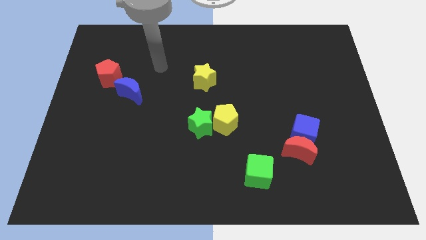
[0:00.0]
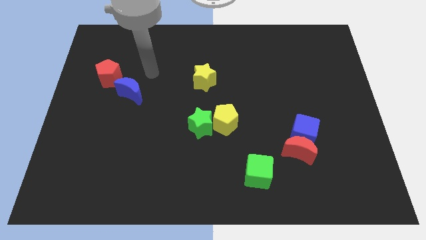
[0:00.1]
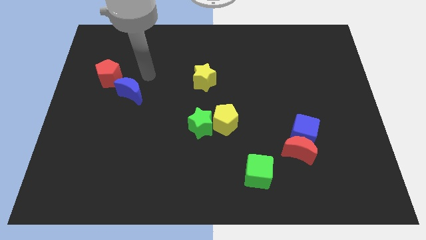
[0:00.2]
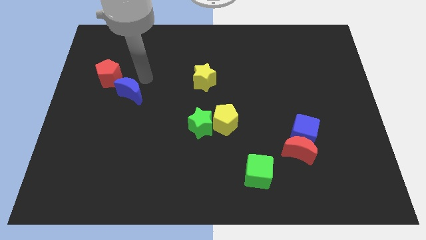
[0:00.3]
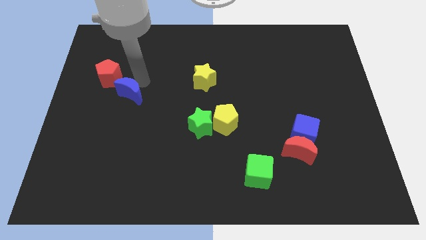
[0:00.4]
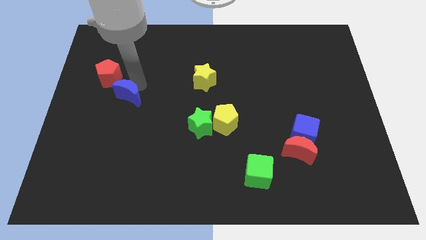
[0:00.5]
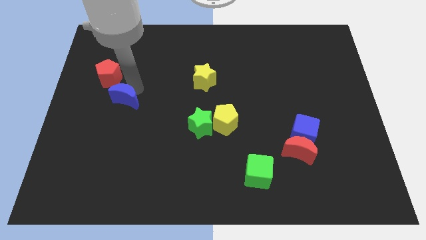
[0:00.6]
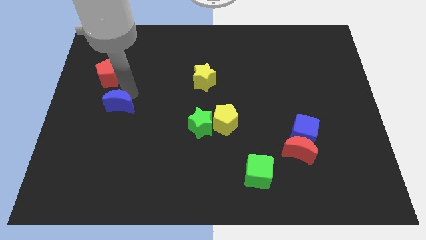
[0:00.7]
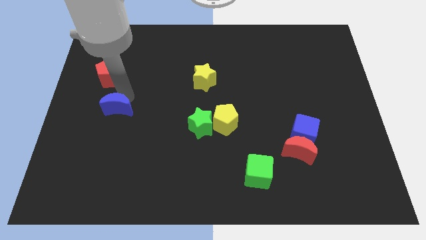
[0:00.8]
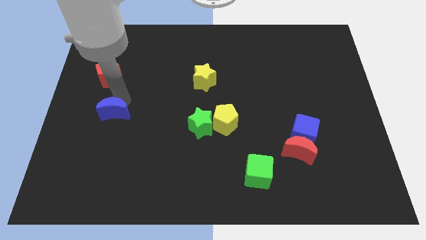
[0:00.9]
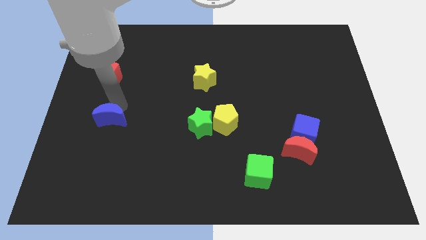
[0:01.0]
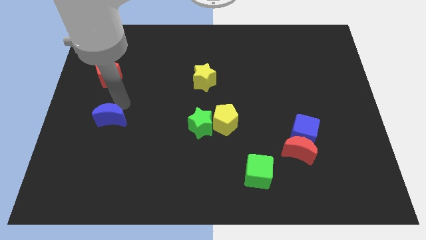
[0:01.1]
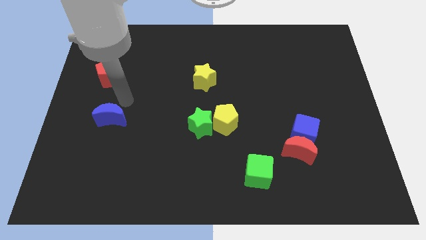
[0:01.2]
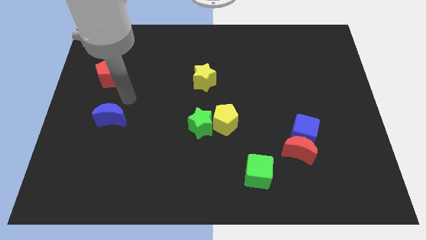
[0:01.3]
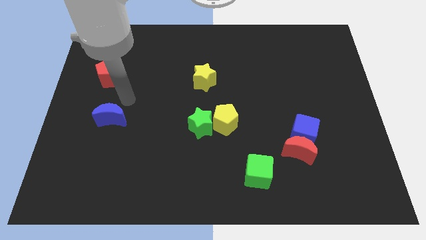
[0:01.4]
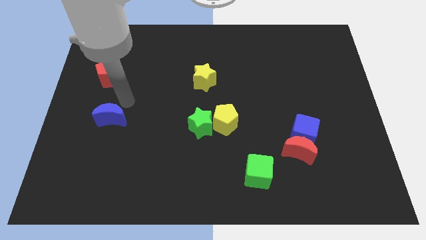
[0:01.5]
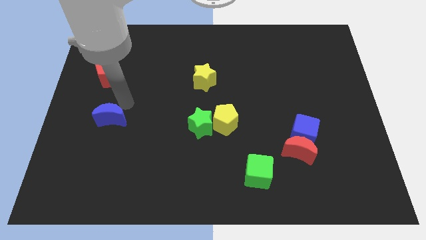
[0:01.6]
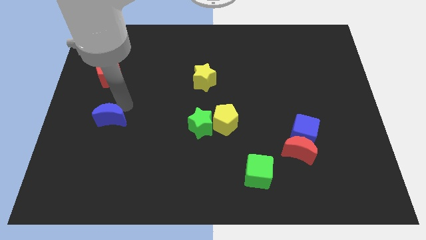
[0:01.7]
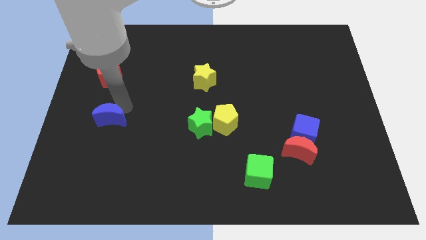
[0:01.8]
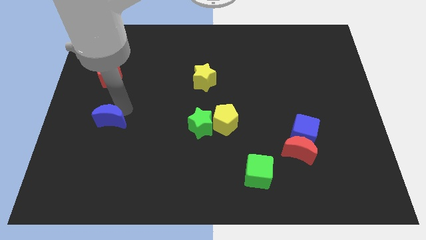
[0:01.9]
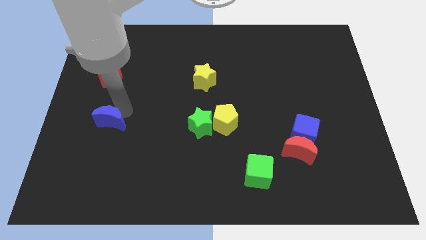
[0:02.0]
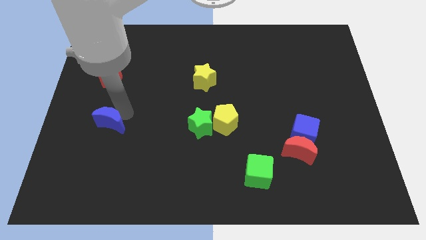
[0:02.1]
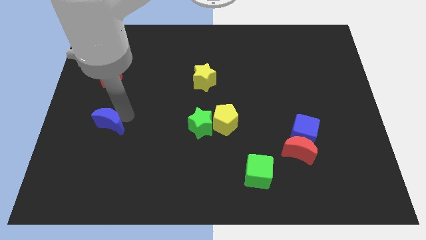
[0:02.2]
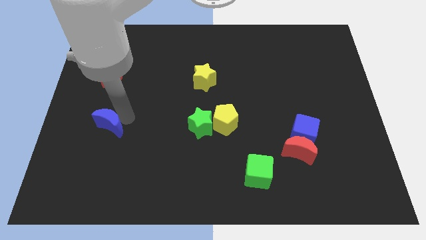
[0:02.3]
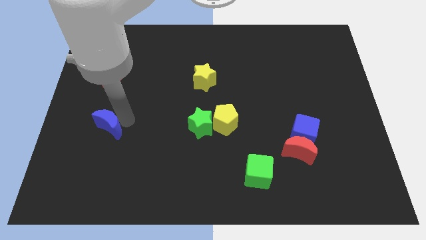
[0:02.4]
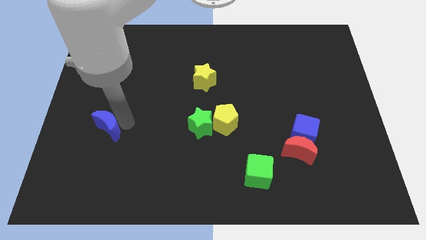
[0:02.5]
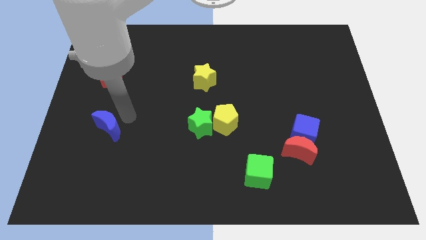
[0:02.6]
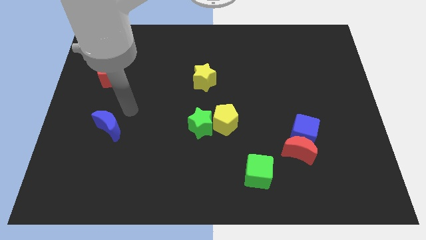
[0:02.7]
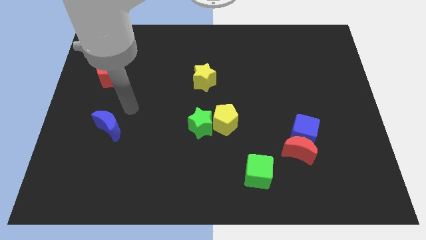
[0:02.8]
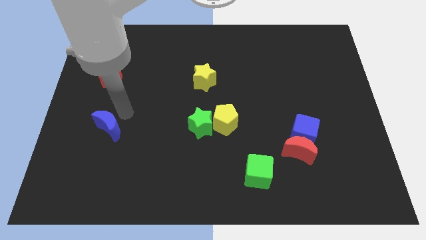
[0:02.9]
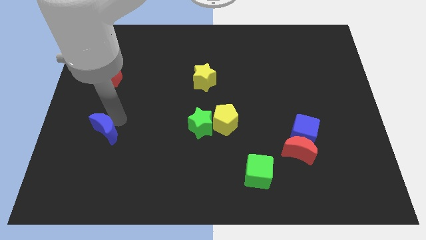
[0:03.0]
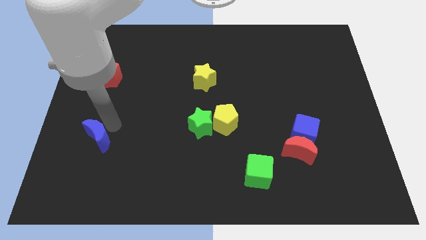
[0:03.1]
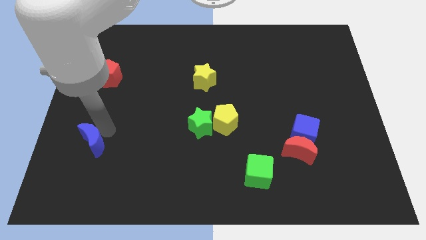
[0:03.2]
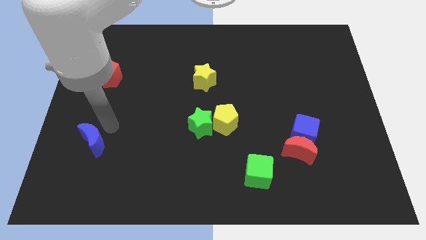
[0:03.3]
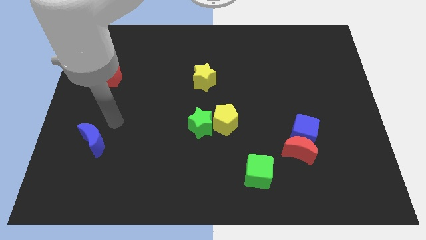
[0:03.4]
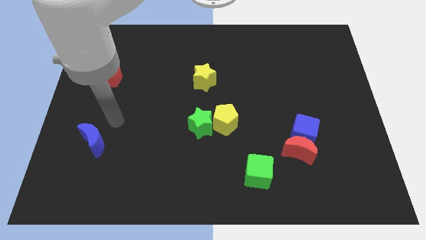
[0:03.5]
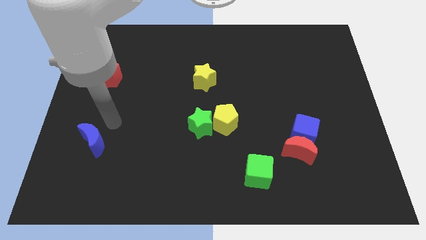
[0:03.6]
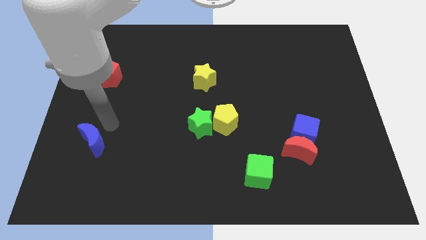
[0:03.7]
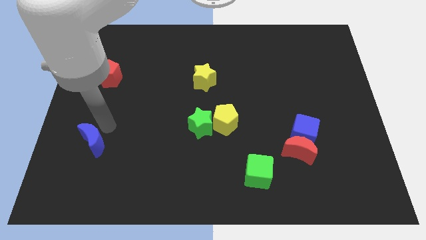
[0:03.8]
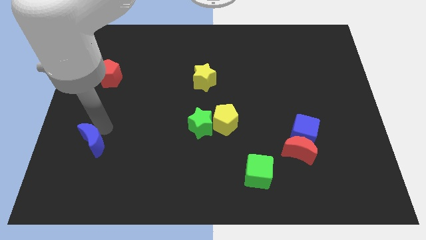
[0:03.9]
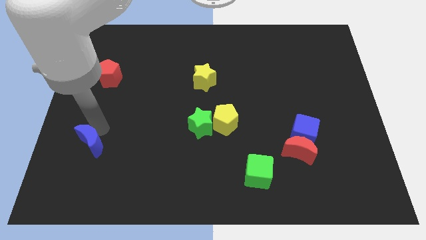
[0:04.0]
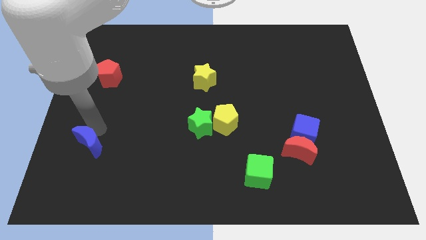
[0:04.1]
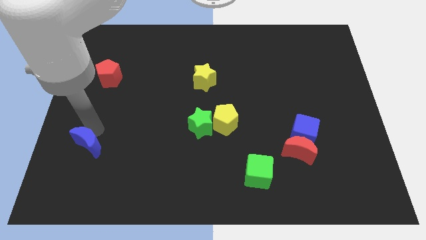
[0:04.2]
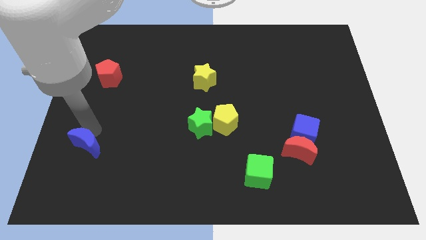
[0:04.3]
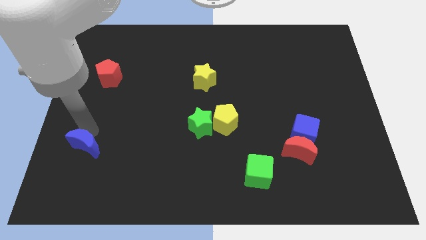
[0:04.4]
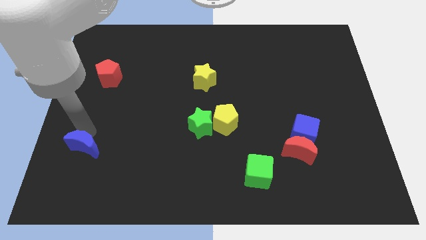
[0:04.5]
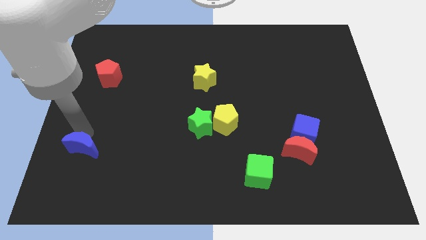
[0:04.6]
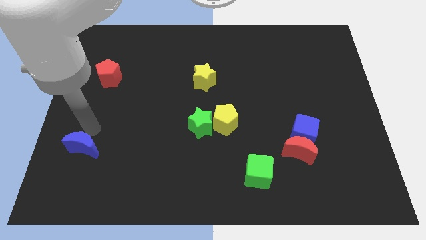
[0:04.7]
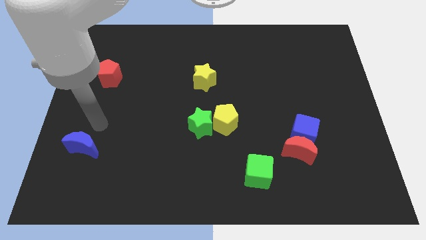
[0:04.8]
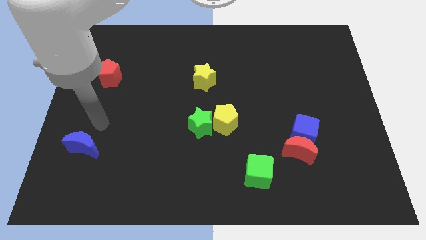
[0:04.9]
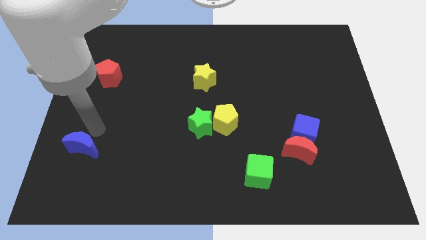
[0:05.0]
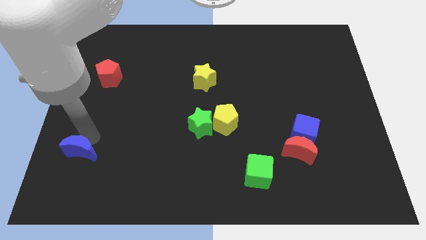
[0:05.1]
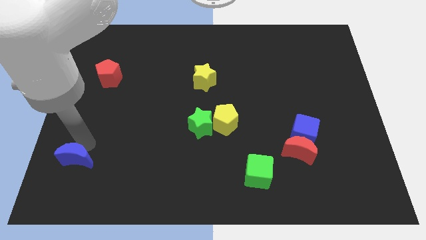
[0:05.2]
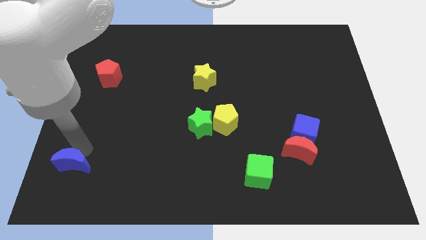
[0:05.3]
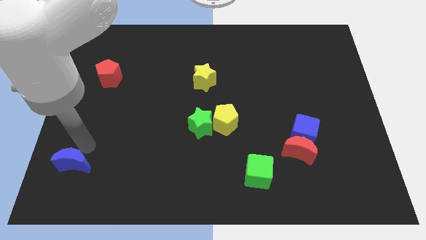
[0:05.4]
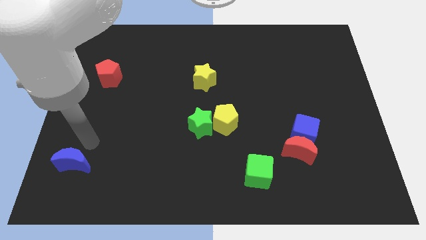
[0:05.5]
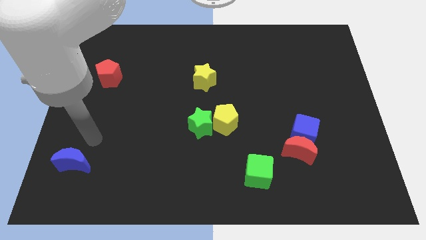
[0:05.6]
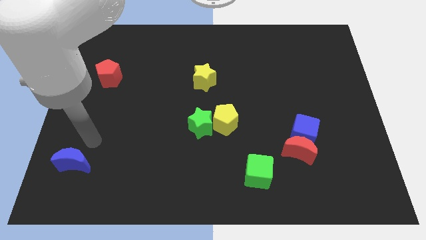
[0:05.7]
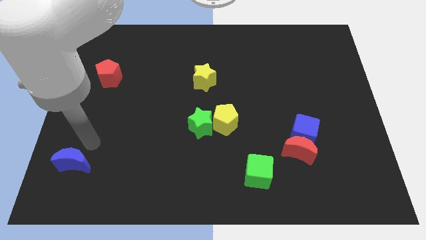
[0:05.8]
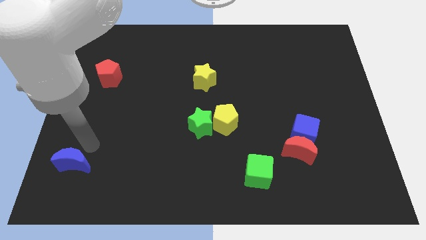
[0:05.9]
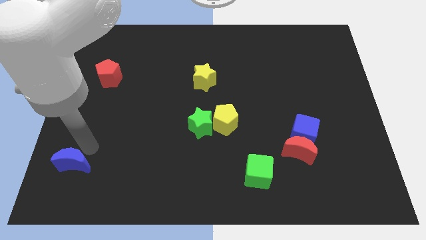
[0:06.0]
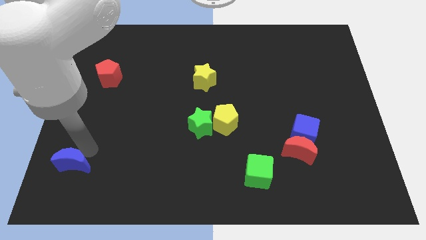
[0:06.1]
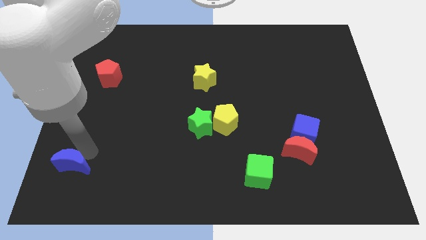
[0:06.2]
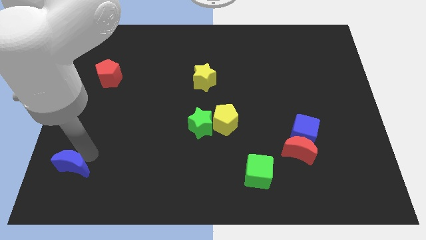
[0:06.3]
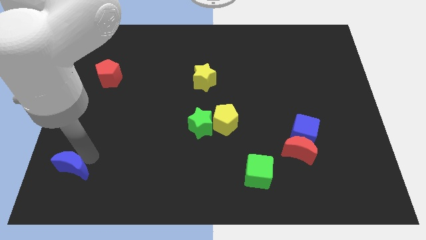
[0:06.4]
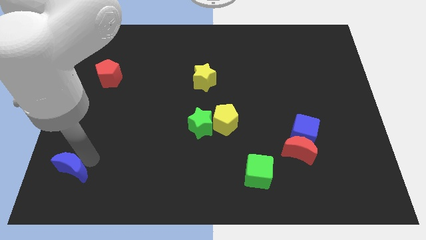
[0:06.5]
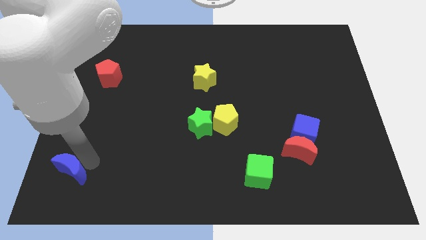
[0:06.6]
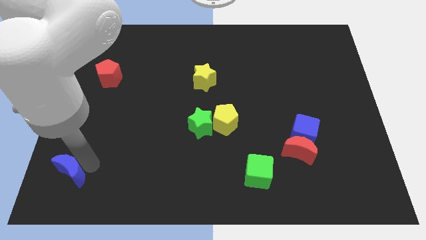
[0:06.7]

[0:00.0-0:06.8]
put the blue moon to the bottom left
